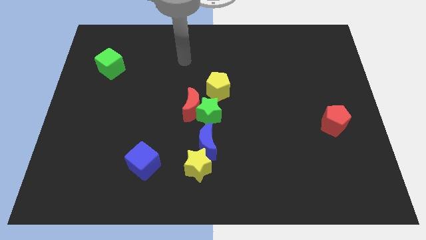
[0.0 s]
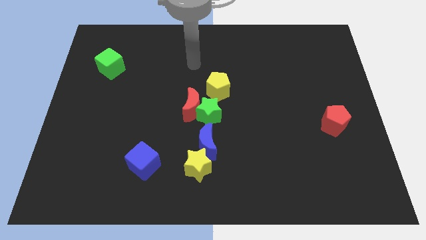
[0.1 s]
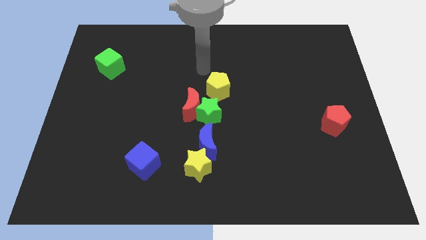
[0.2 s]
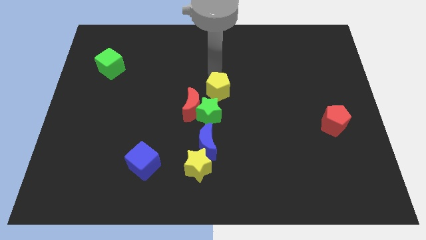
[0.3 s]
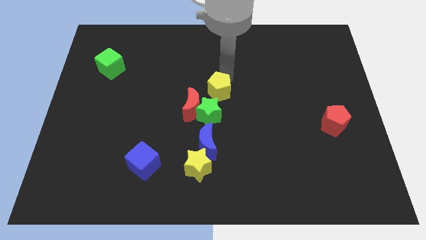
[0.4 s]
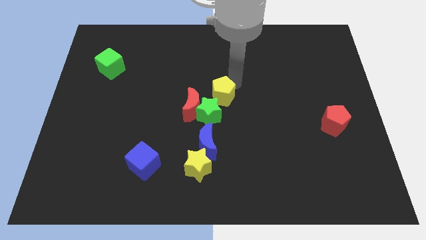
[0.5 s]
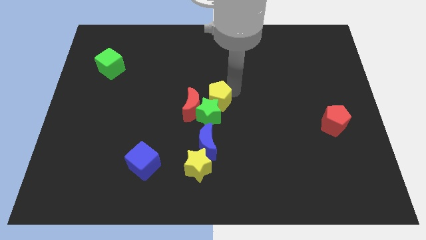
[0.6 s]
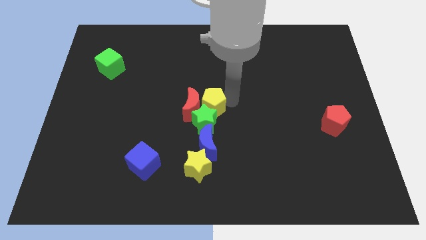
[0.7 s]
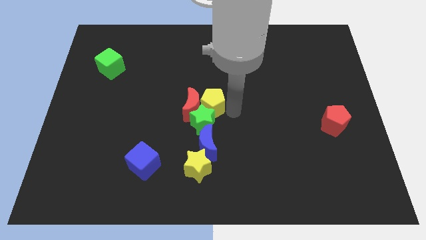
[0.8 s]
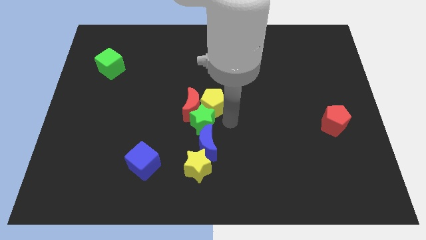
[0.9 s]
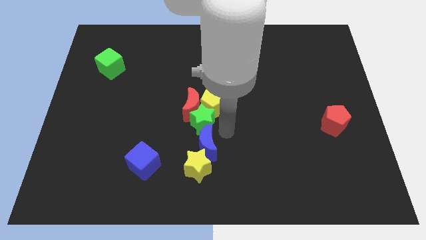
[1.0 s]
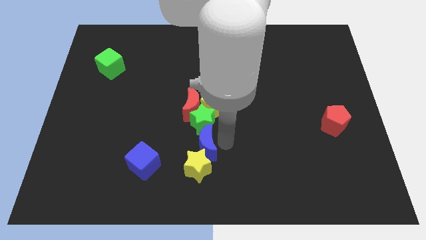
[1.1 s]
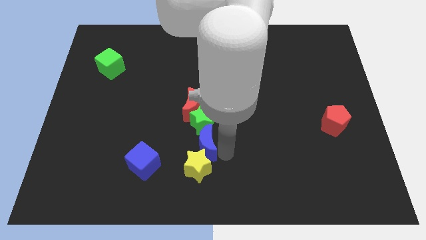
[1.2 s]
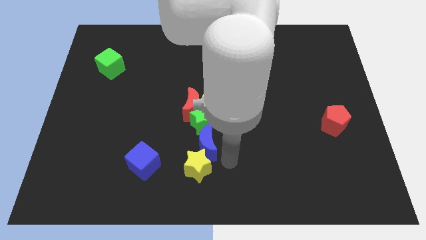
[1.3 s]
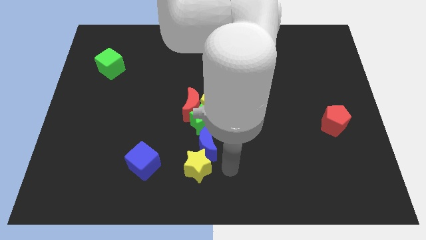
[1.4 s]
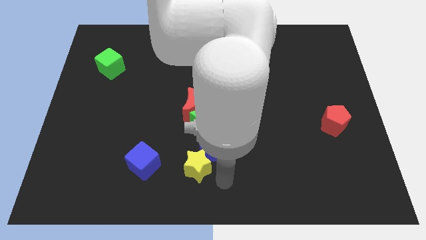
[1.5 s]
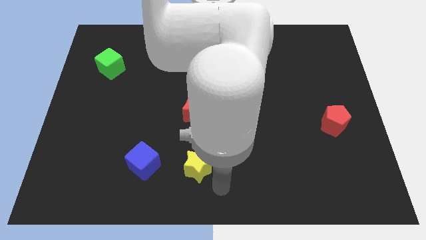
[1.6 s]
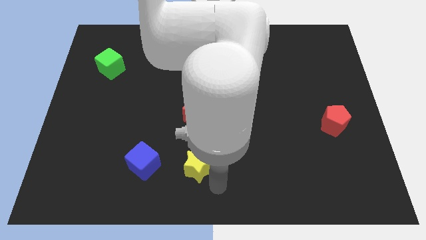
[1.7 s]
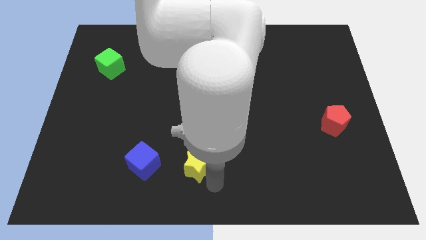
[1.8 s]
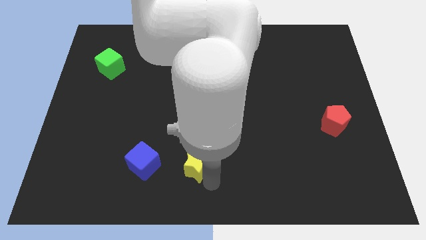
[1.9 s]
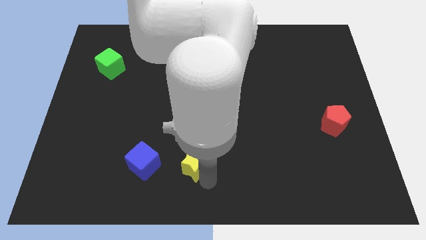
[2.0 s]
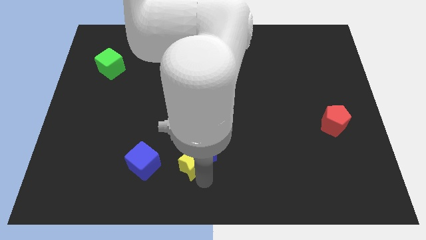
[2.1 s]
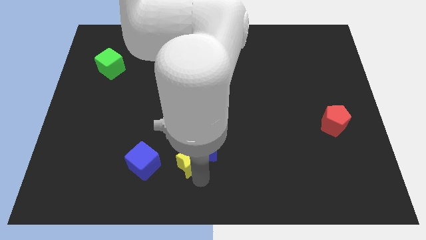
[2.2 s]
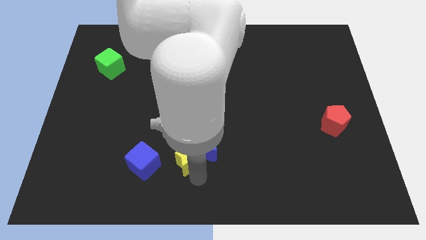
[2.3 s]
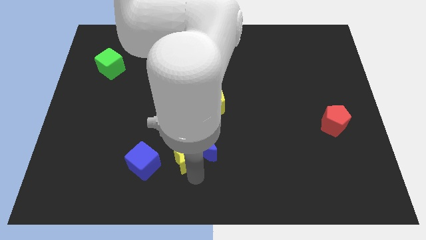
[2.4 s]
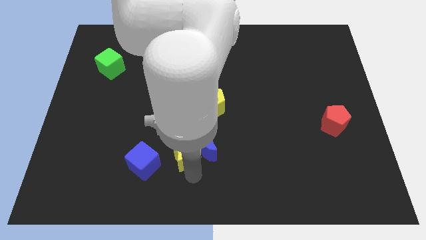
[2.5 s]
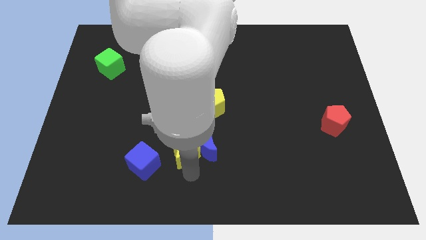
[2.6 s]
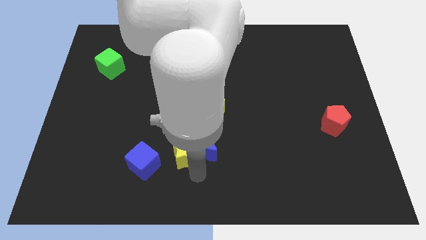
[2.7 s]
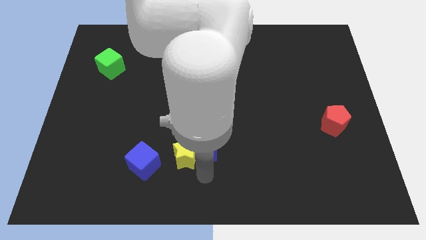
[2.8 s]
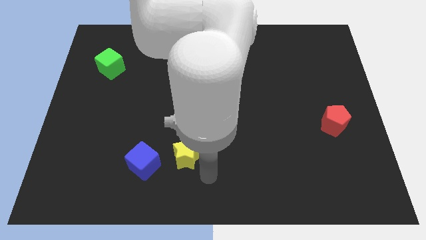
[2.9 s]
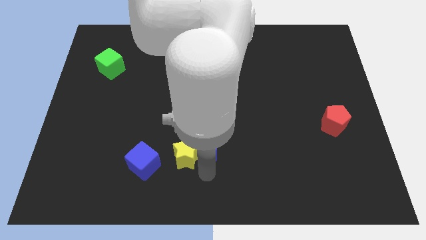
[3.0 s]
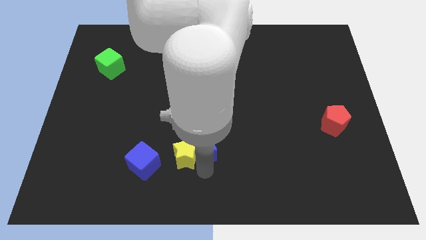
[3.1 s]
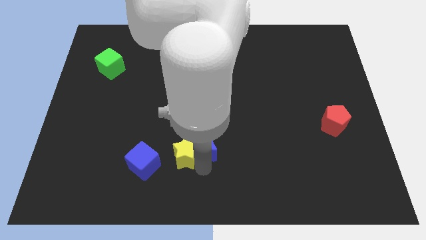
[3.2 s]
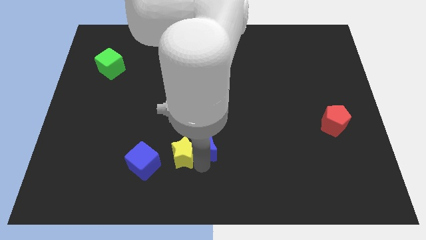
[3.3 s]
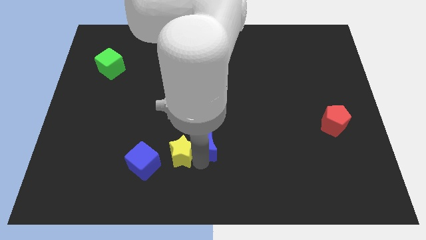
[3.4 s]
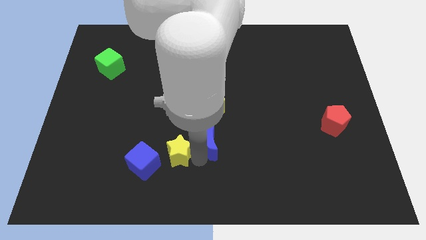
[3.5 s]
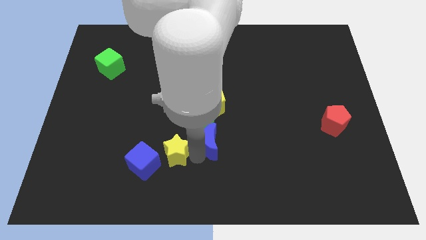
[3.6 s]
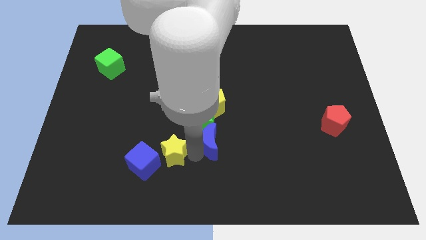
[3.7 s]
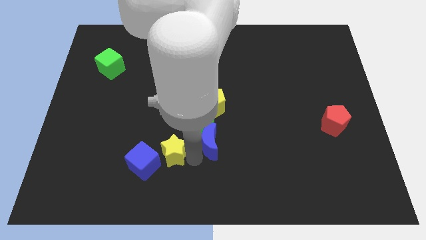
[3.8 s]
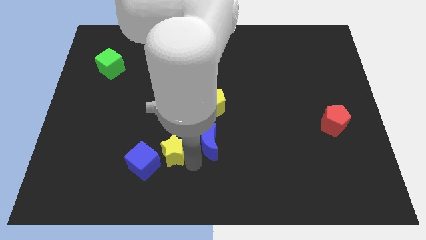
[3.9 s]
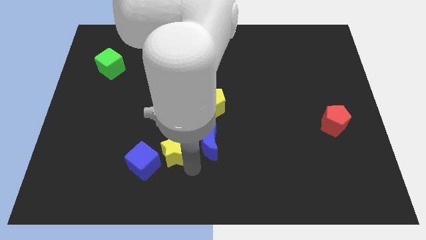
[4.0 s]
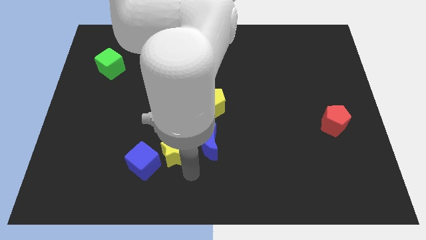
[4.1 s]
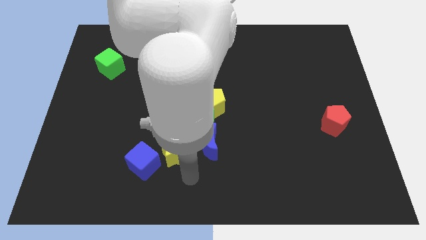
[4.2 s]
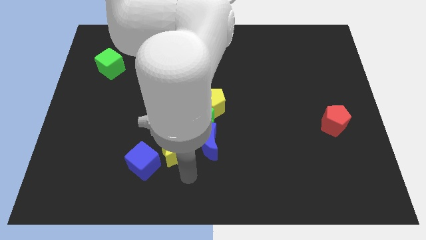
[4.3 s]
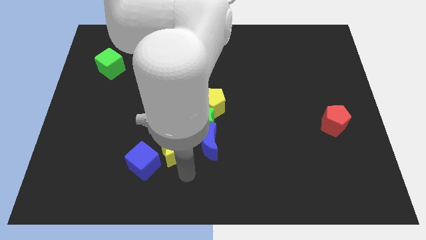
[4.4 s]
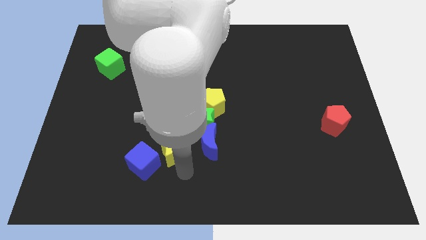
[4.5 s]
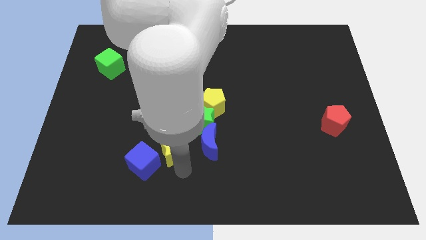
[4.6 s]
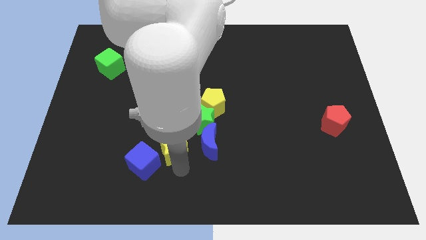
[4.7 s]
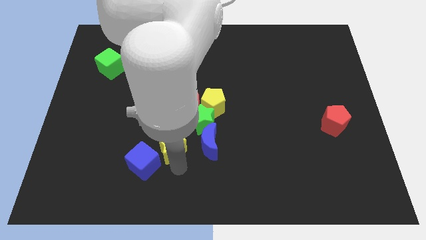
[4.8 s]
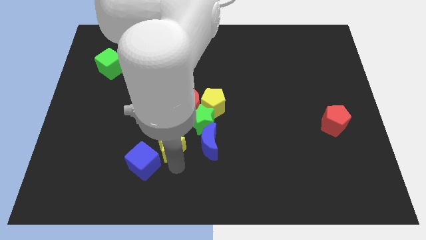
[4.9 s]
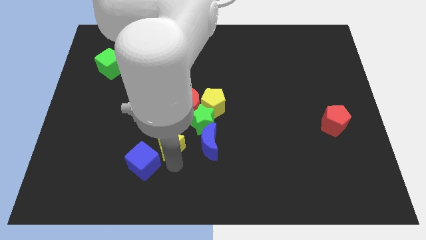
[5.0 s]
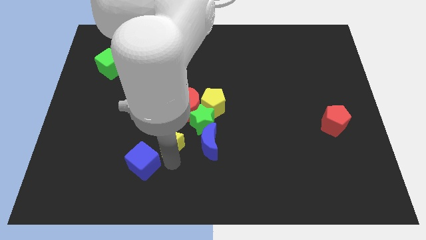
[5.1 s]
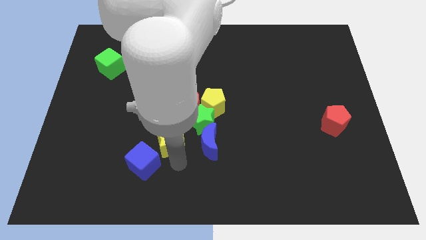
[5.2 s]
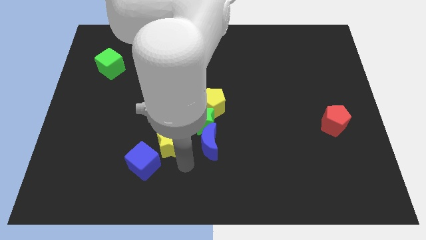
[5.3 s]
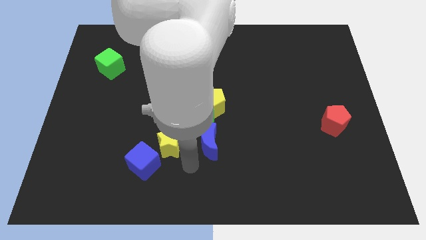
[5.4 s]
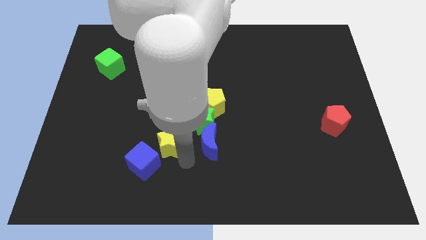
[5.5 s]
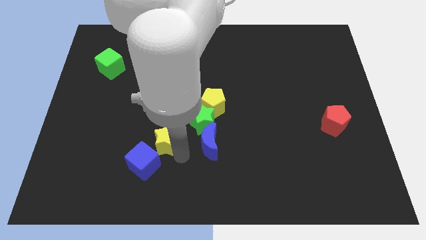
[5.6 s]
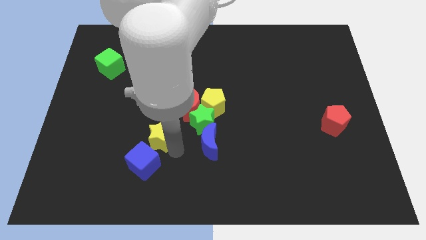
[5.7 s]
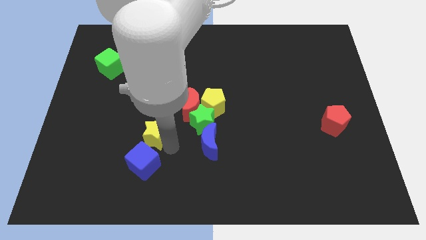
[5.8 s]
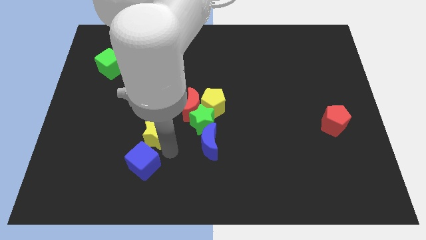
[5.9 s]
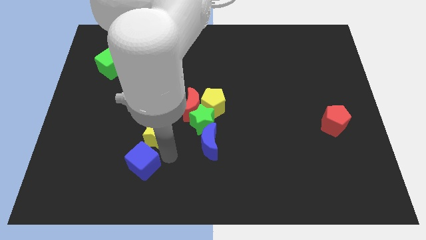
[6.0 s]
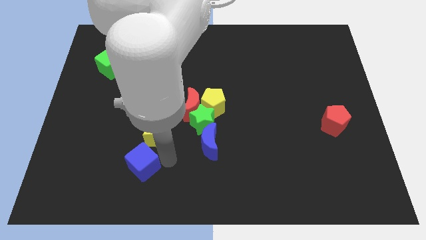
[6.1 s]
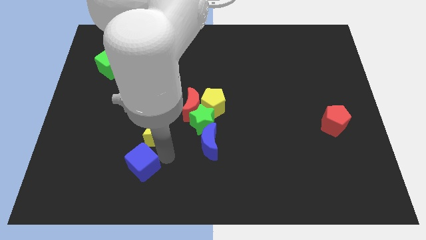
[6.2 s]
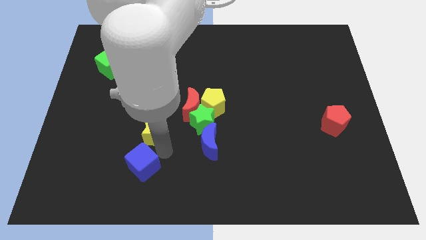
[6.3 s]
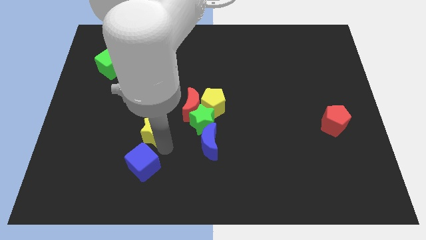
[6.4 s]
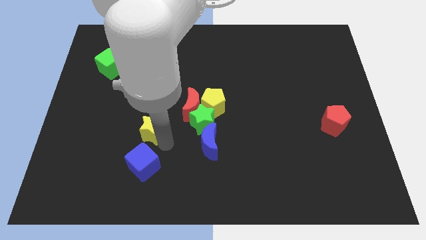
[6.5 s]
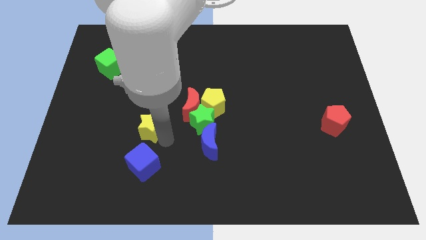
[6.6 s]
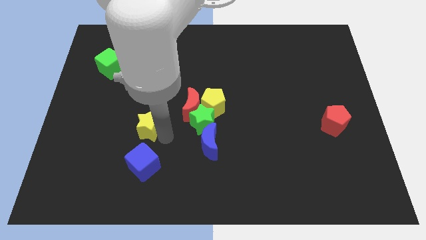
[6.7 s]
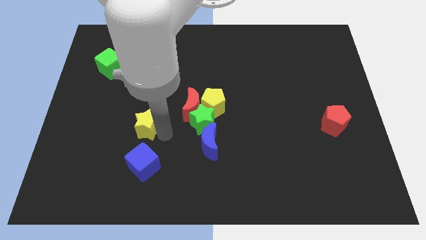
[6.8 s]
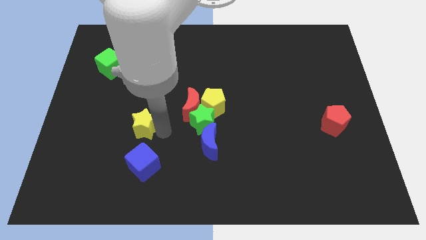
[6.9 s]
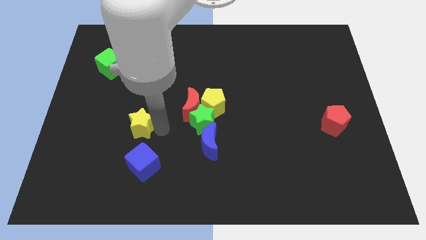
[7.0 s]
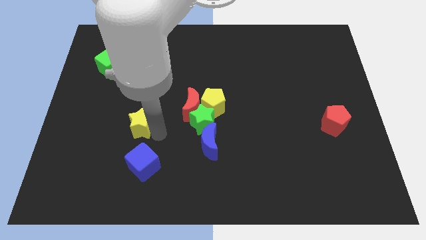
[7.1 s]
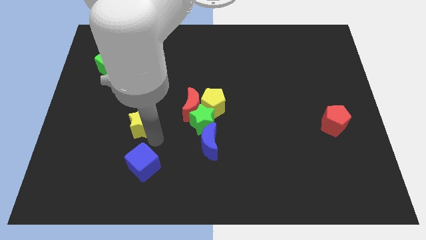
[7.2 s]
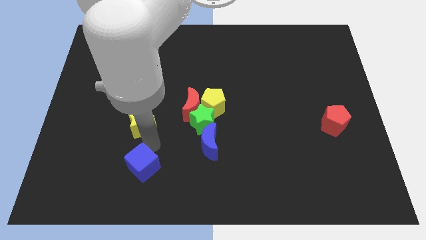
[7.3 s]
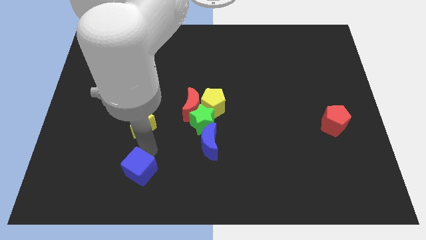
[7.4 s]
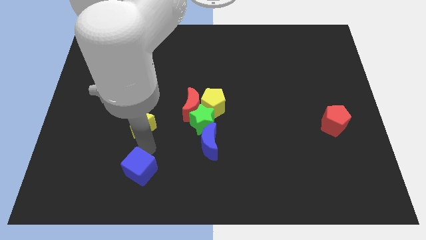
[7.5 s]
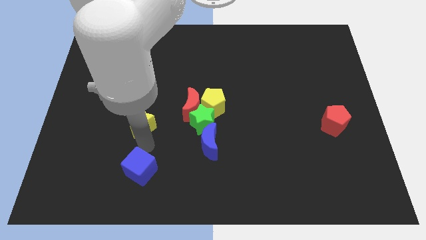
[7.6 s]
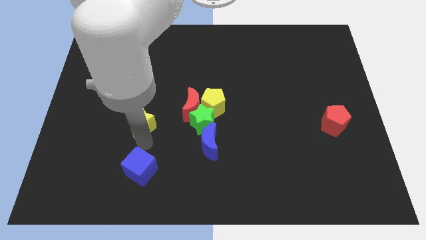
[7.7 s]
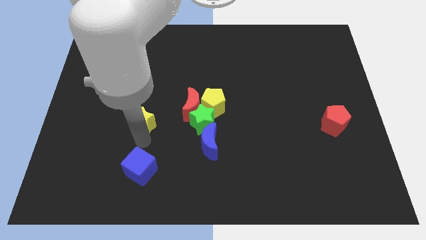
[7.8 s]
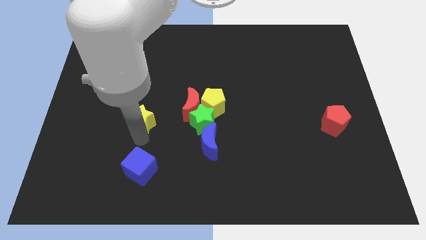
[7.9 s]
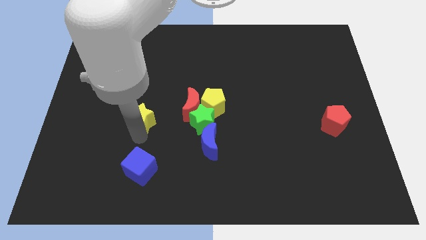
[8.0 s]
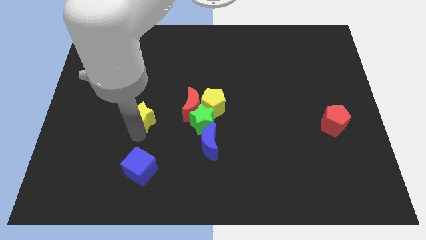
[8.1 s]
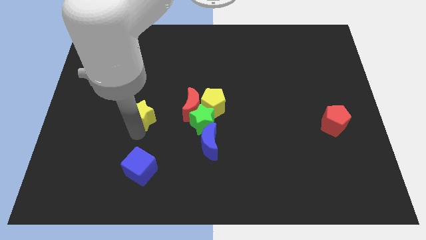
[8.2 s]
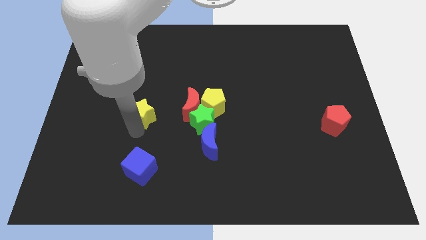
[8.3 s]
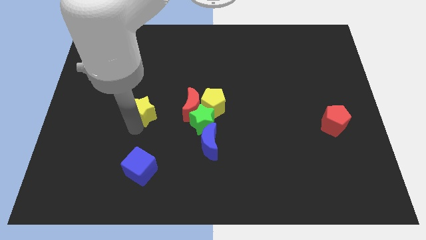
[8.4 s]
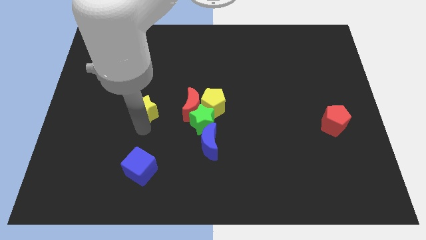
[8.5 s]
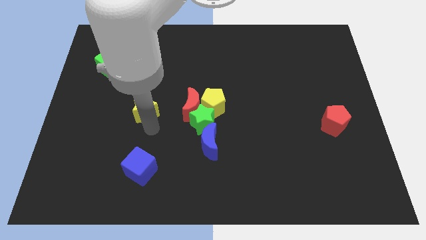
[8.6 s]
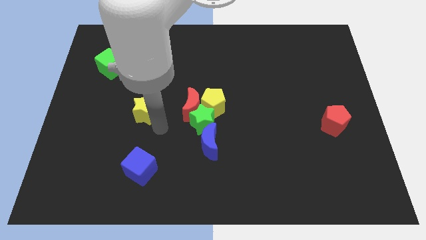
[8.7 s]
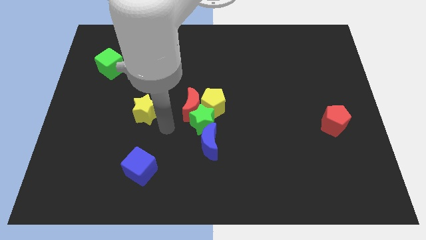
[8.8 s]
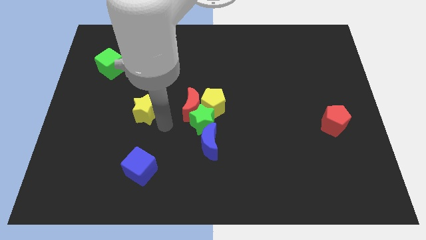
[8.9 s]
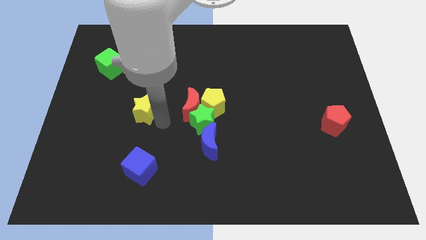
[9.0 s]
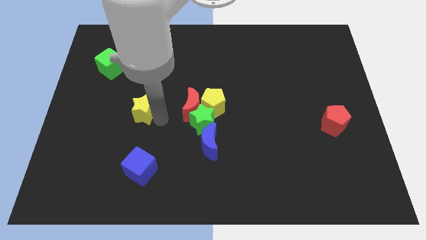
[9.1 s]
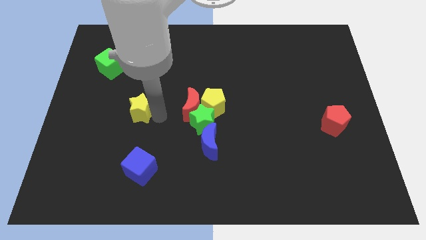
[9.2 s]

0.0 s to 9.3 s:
push the yellow star upwards and to the left
